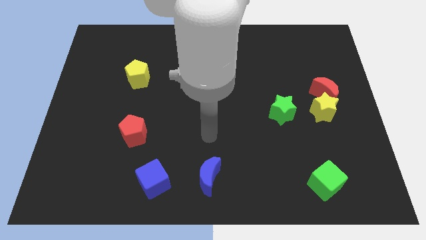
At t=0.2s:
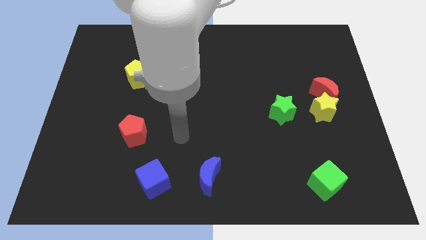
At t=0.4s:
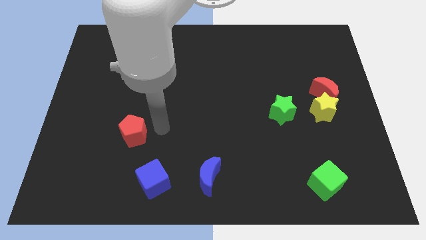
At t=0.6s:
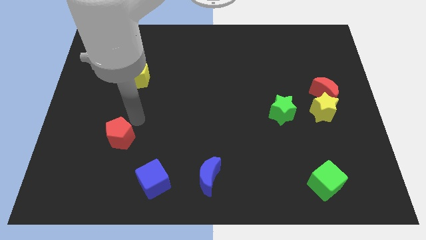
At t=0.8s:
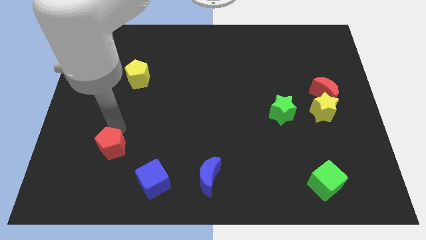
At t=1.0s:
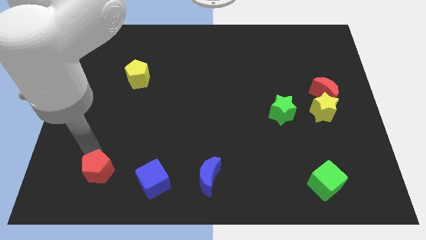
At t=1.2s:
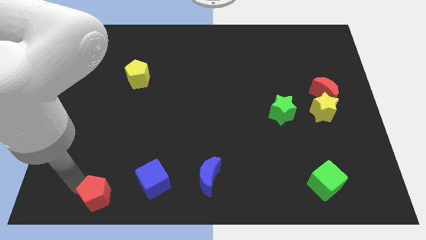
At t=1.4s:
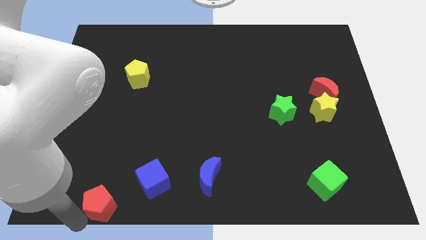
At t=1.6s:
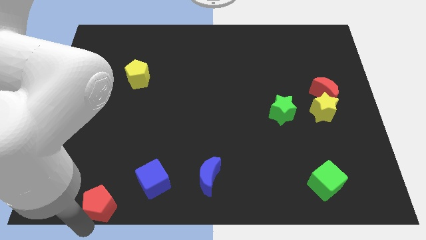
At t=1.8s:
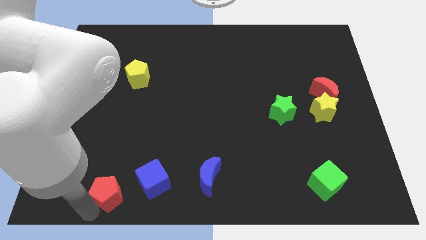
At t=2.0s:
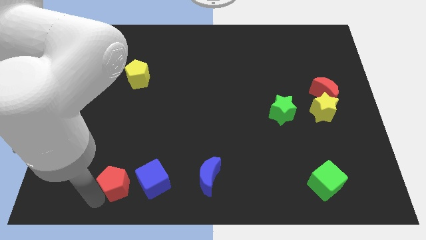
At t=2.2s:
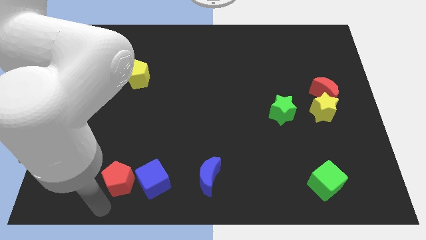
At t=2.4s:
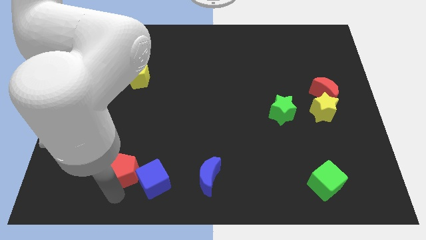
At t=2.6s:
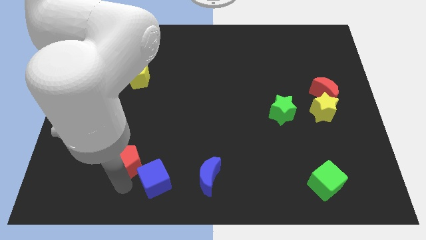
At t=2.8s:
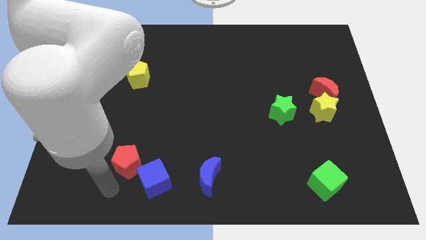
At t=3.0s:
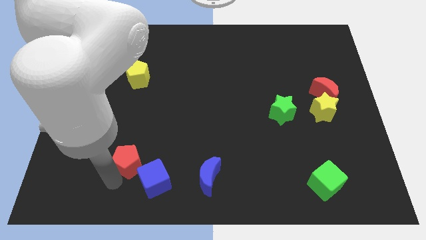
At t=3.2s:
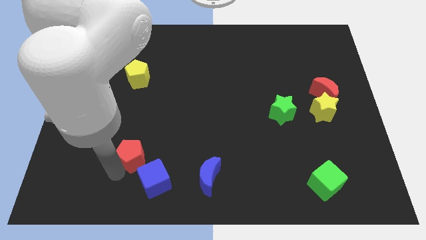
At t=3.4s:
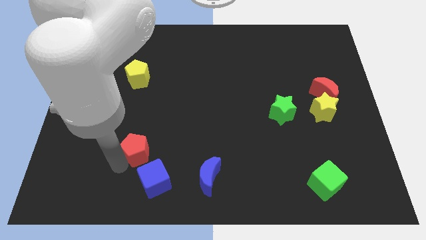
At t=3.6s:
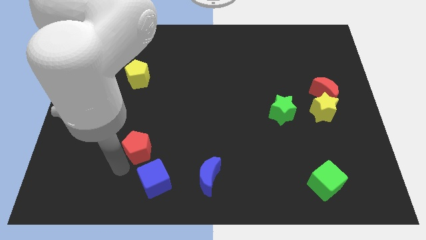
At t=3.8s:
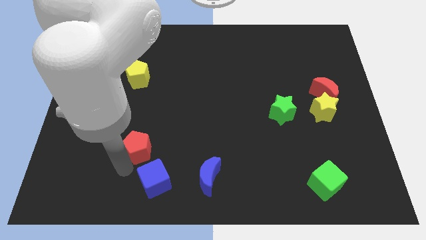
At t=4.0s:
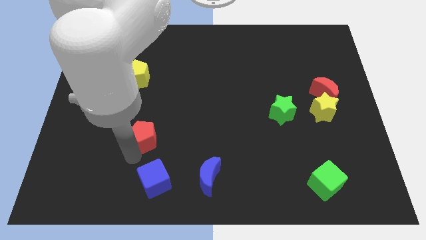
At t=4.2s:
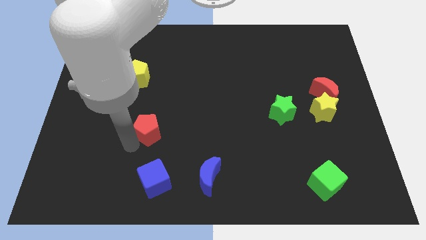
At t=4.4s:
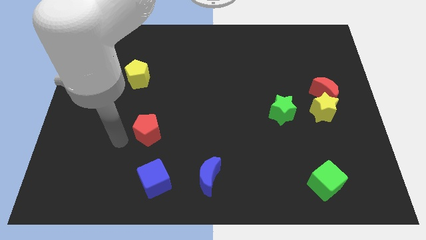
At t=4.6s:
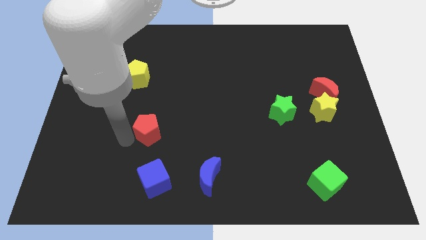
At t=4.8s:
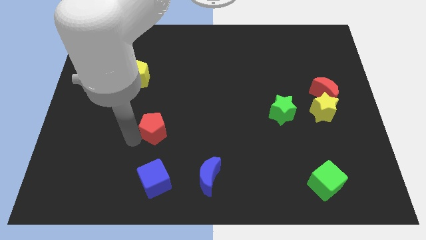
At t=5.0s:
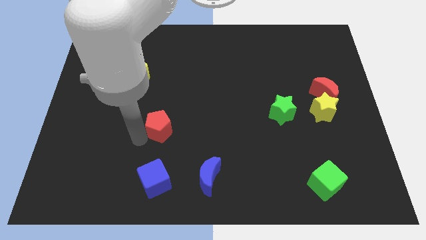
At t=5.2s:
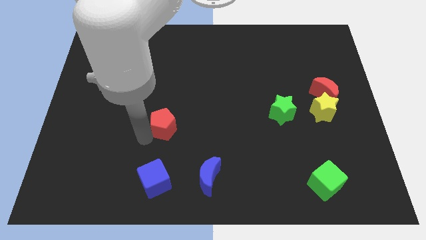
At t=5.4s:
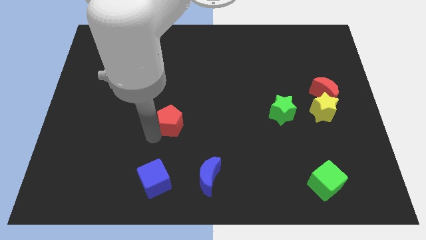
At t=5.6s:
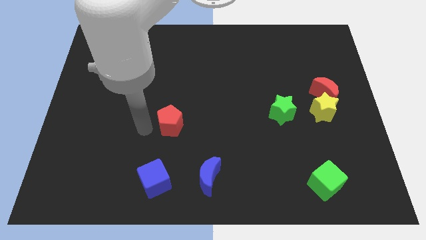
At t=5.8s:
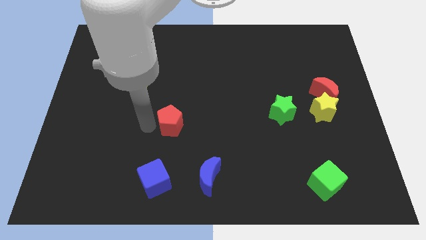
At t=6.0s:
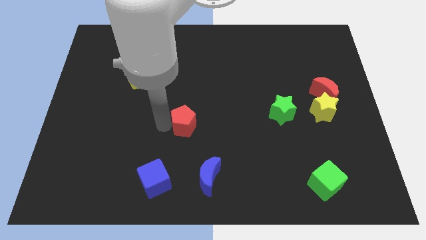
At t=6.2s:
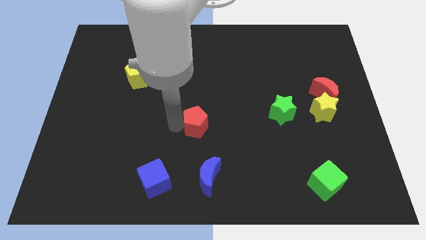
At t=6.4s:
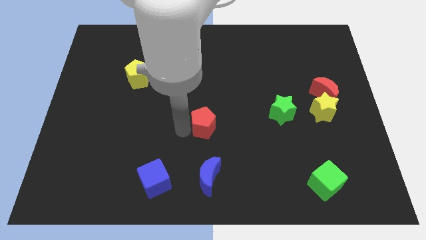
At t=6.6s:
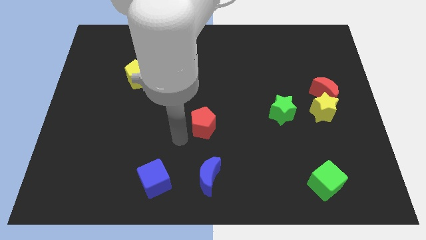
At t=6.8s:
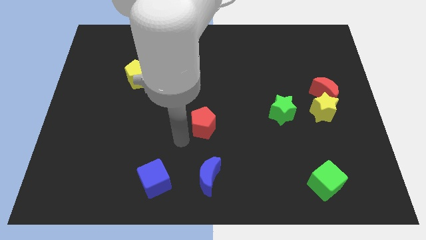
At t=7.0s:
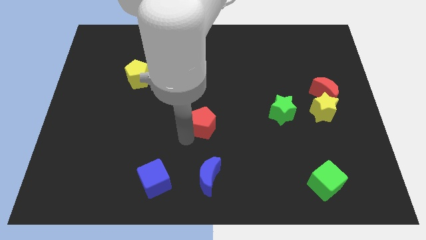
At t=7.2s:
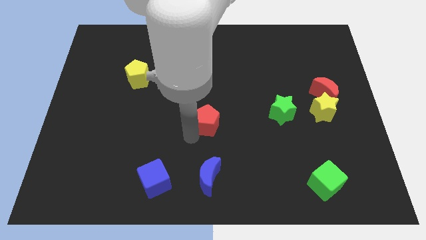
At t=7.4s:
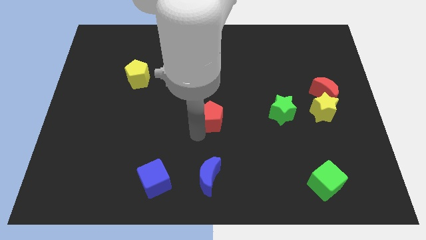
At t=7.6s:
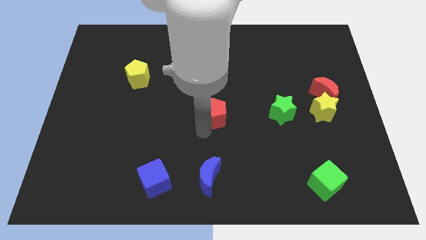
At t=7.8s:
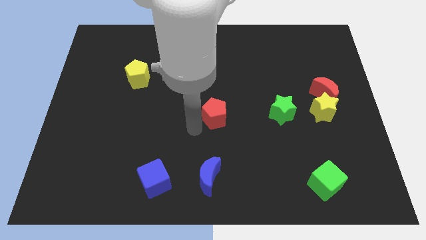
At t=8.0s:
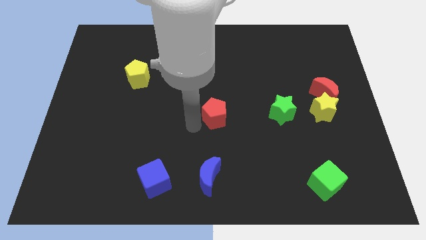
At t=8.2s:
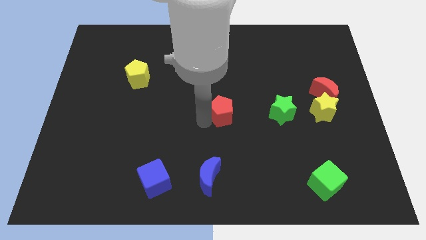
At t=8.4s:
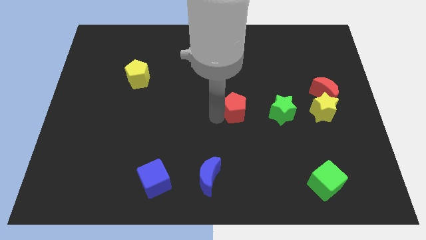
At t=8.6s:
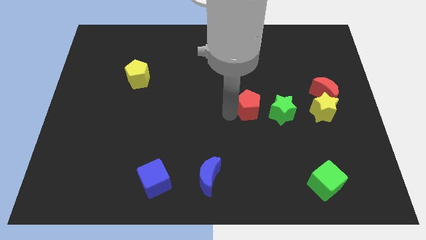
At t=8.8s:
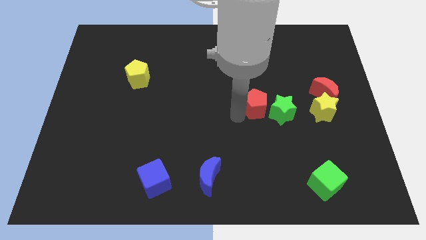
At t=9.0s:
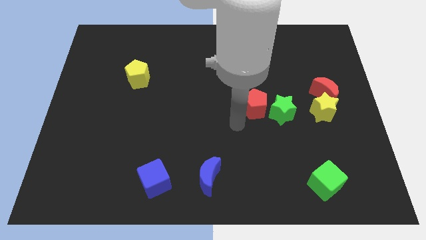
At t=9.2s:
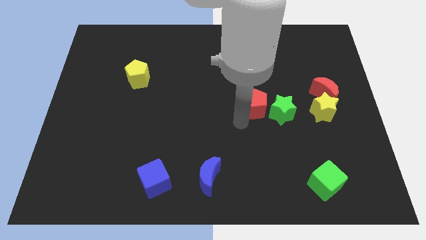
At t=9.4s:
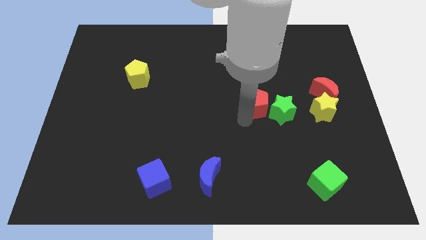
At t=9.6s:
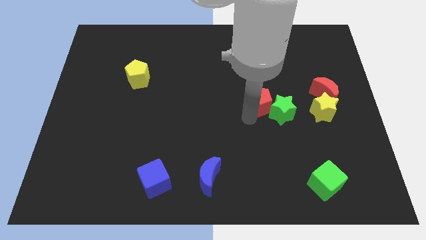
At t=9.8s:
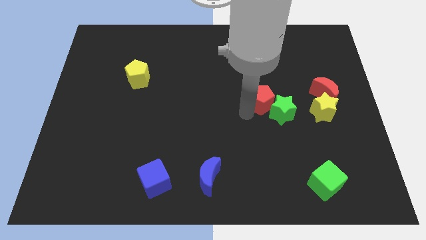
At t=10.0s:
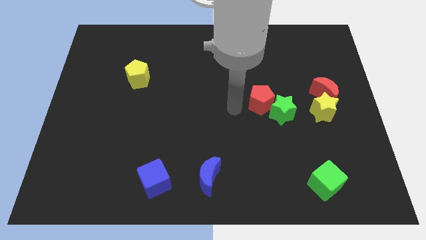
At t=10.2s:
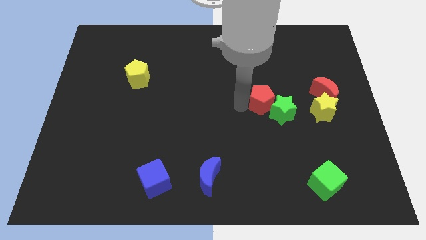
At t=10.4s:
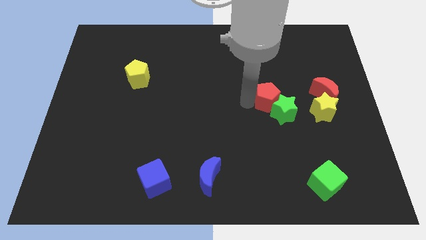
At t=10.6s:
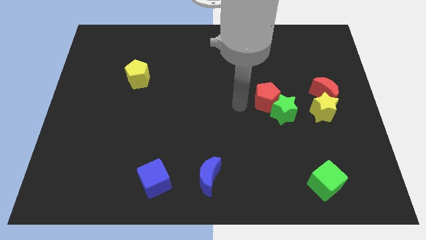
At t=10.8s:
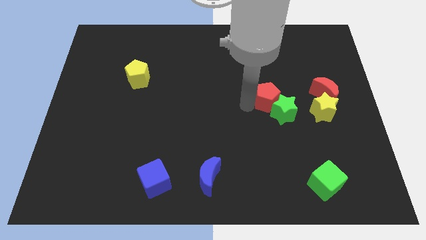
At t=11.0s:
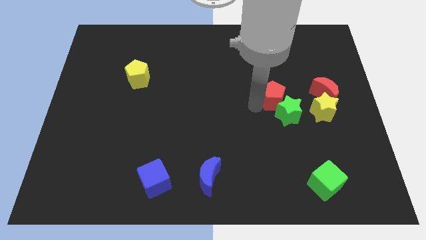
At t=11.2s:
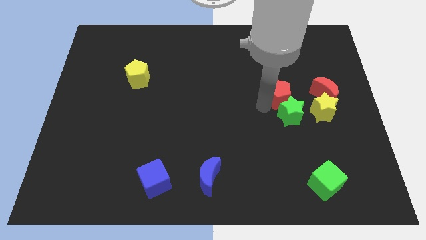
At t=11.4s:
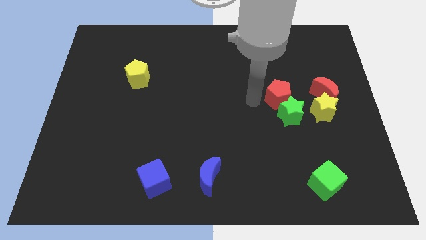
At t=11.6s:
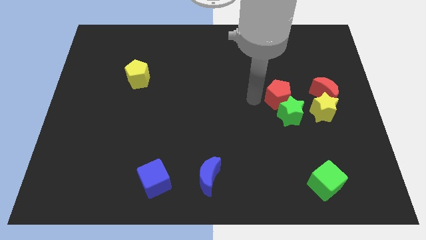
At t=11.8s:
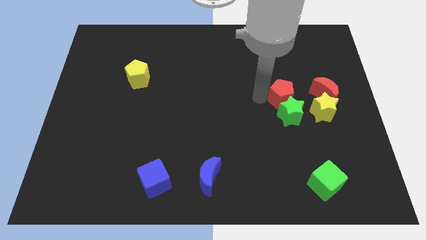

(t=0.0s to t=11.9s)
slide the red pentagon to the top right of the green star

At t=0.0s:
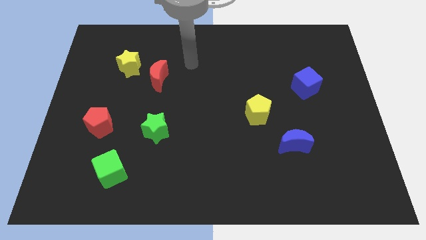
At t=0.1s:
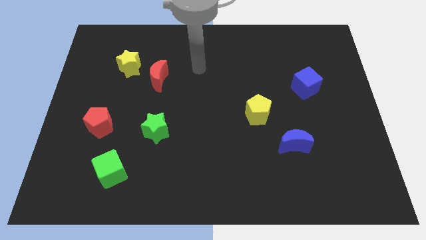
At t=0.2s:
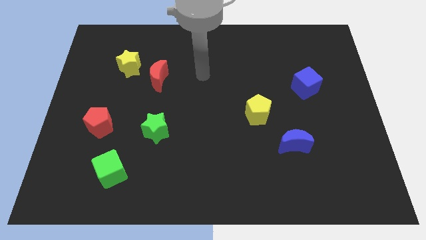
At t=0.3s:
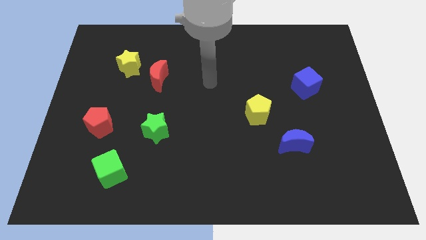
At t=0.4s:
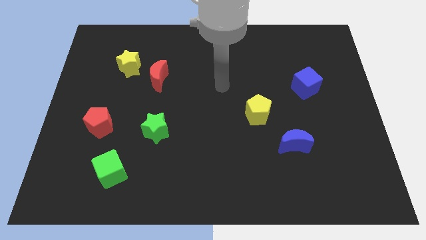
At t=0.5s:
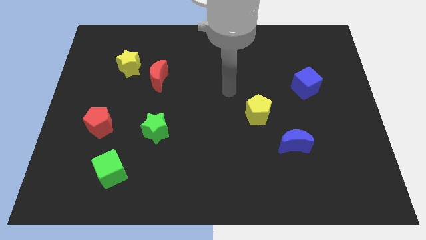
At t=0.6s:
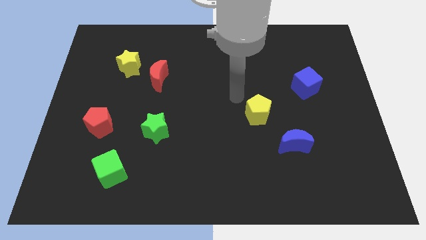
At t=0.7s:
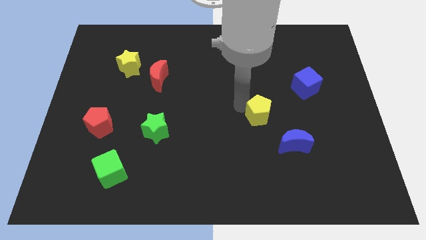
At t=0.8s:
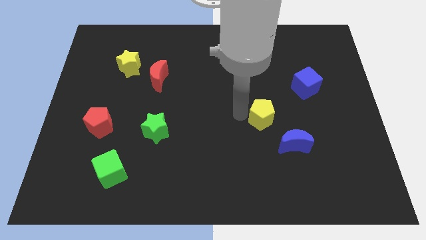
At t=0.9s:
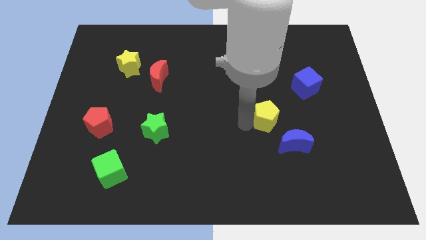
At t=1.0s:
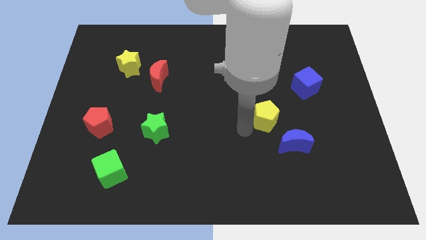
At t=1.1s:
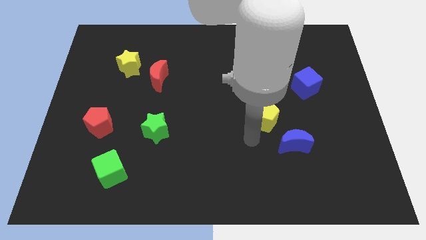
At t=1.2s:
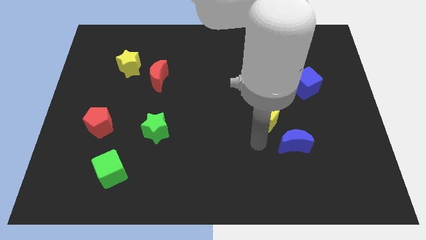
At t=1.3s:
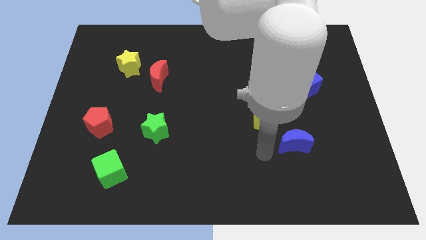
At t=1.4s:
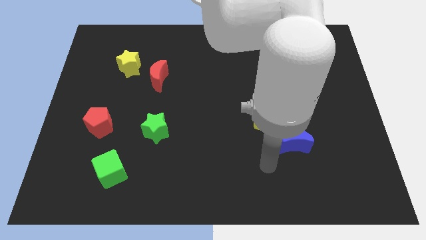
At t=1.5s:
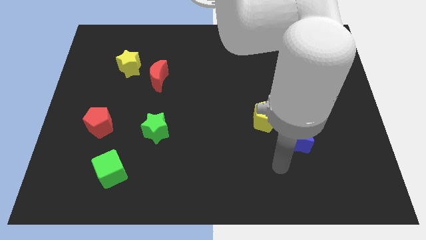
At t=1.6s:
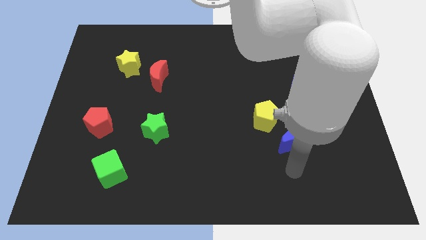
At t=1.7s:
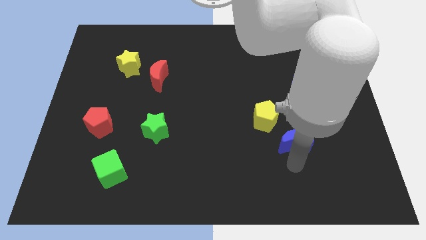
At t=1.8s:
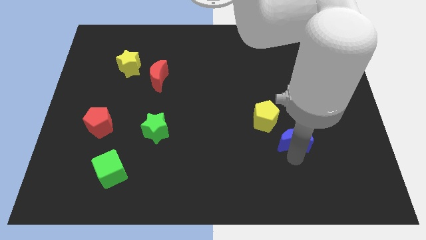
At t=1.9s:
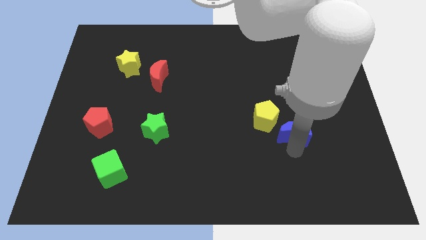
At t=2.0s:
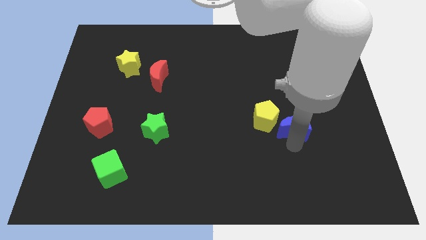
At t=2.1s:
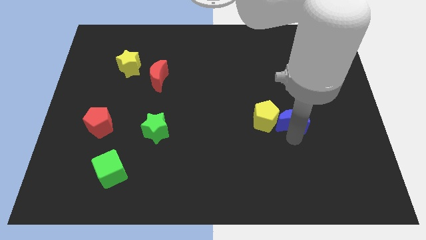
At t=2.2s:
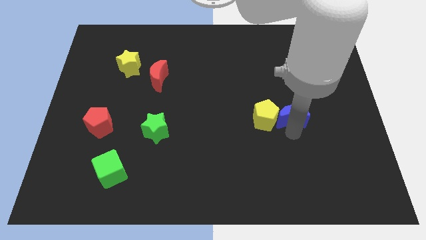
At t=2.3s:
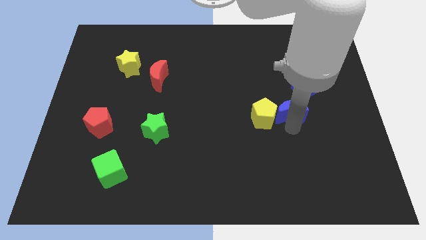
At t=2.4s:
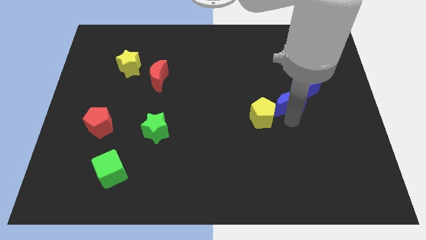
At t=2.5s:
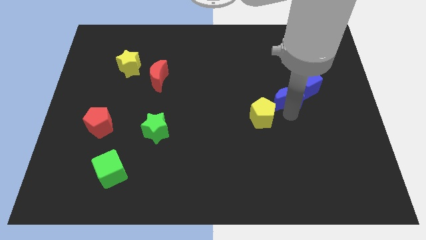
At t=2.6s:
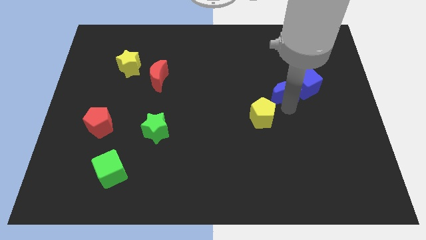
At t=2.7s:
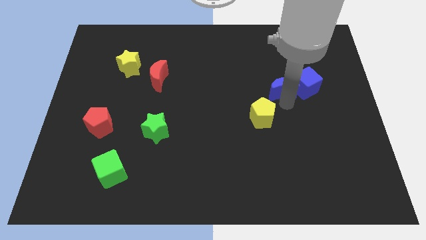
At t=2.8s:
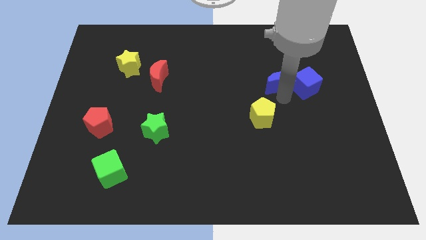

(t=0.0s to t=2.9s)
put the blue moon to the top left of the blue cube
